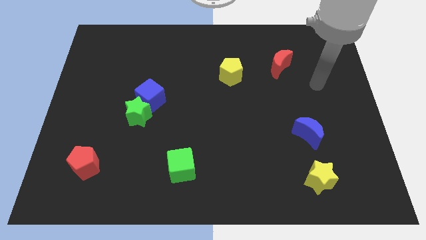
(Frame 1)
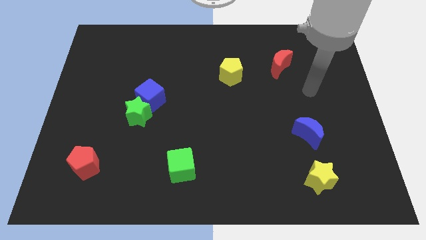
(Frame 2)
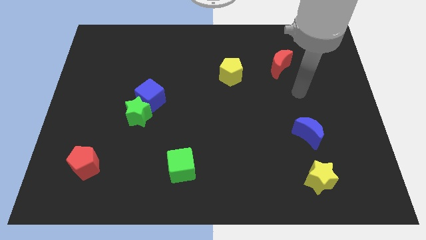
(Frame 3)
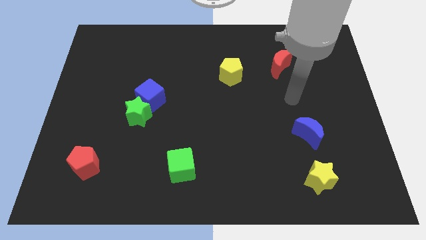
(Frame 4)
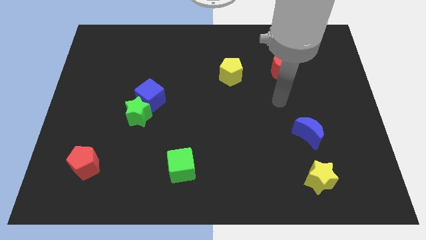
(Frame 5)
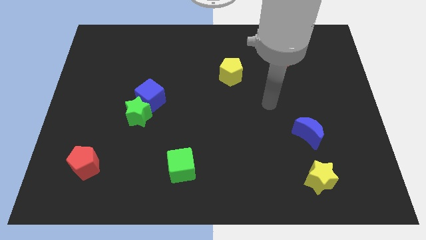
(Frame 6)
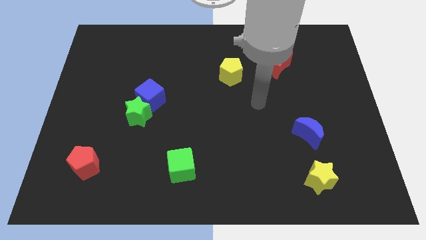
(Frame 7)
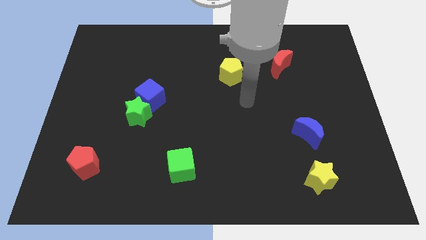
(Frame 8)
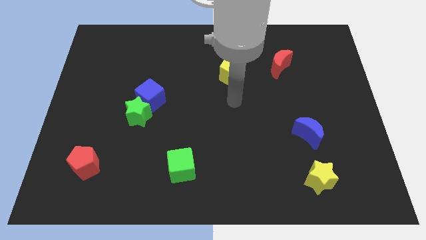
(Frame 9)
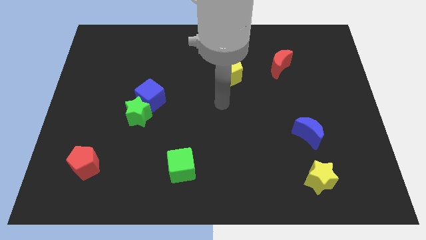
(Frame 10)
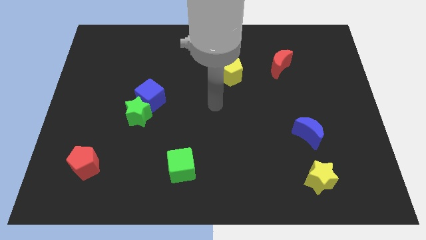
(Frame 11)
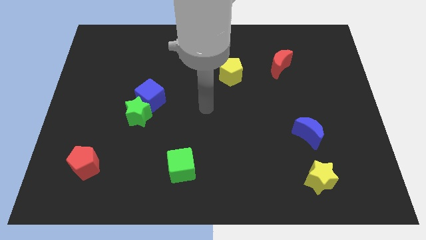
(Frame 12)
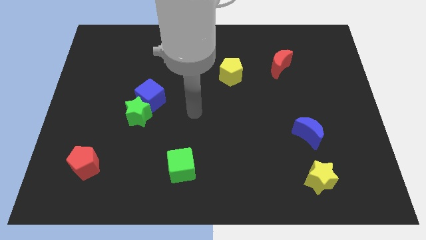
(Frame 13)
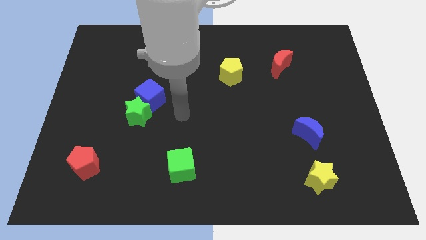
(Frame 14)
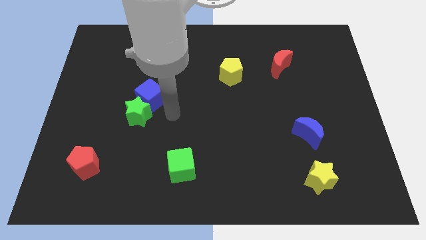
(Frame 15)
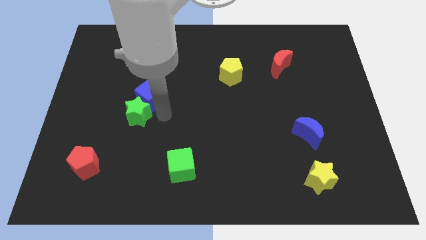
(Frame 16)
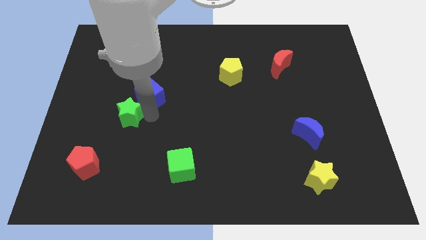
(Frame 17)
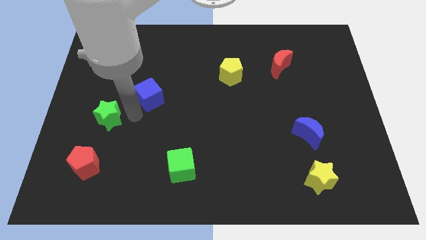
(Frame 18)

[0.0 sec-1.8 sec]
move the blue cube away from the green star

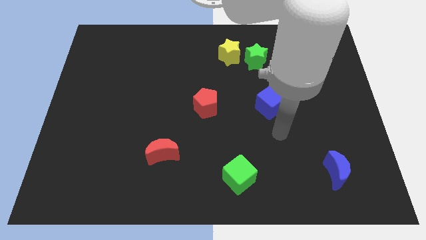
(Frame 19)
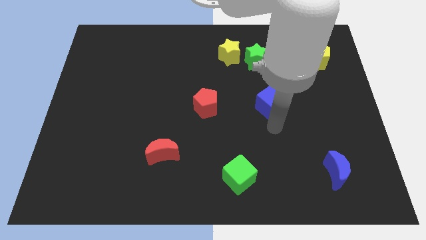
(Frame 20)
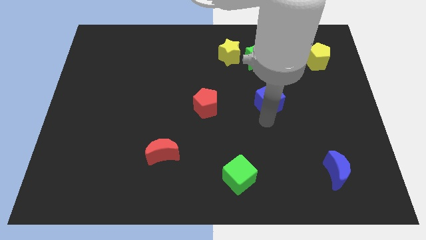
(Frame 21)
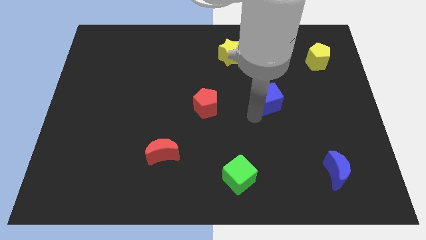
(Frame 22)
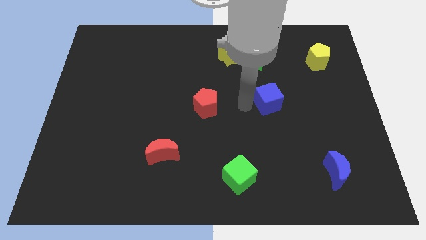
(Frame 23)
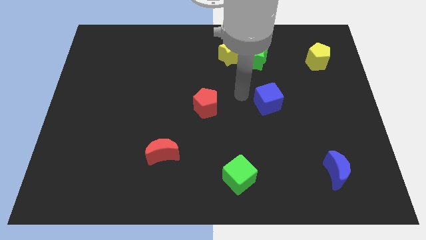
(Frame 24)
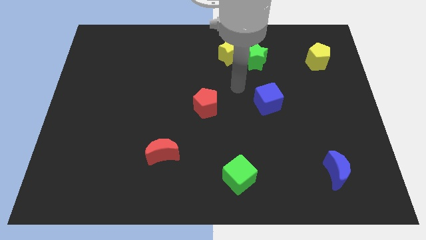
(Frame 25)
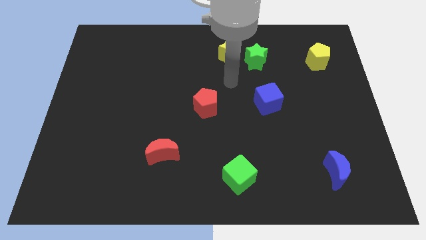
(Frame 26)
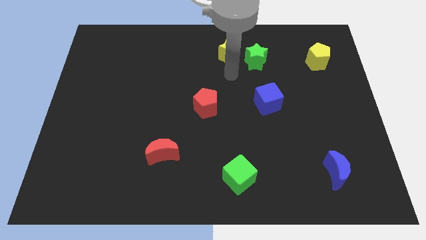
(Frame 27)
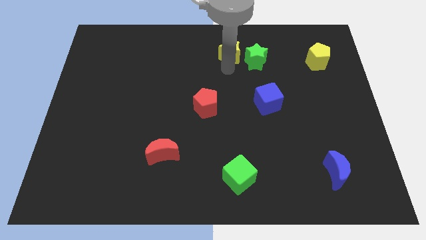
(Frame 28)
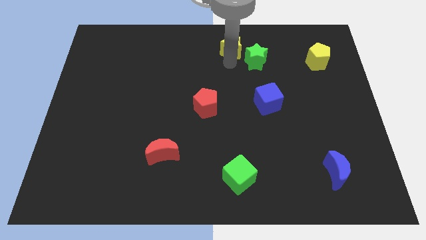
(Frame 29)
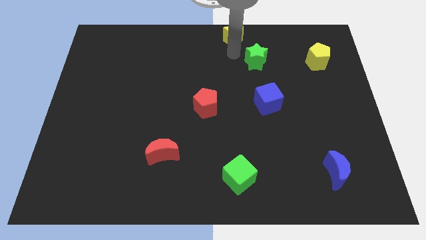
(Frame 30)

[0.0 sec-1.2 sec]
pull the green star apart from the yellow star

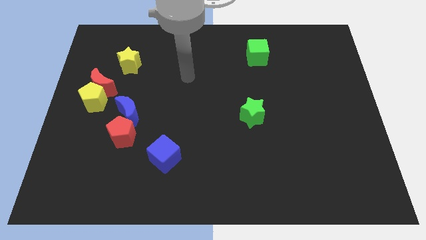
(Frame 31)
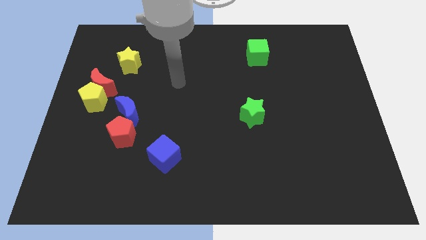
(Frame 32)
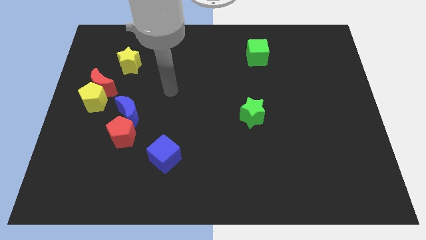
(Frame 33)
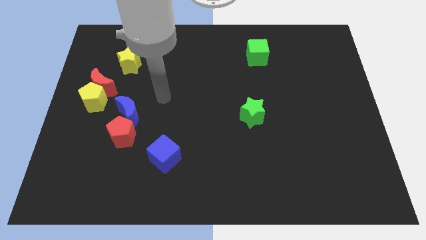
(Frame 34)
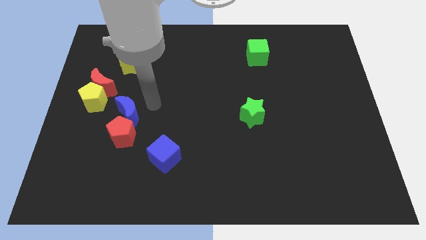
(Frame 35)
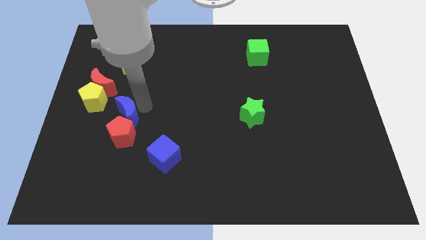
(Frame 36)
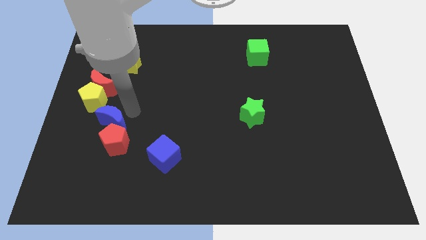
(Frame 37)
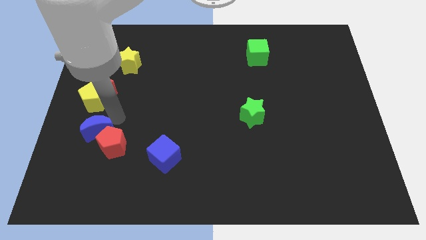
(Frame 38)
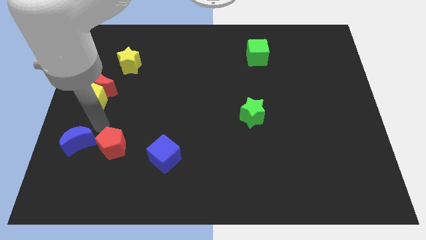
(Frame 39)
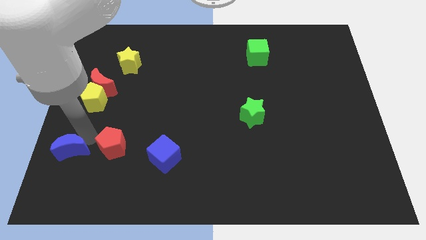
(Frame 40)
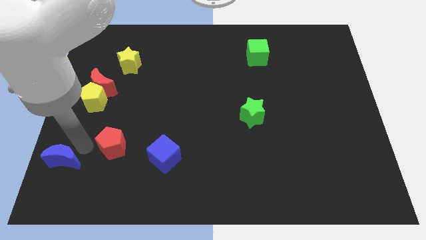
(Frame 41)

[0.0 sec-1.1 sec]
pull the red pentagon apart from the blue moon

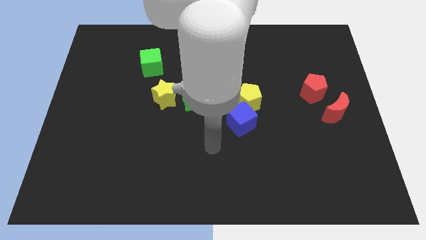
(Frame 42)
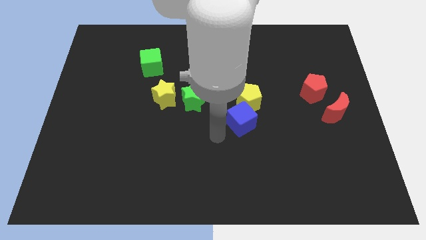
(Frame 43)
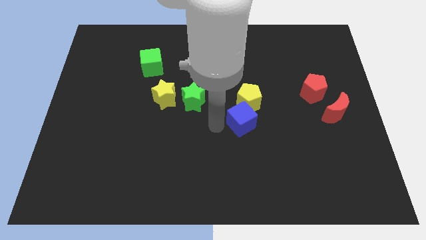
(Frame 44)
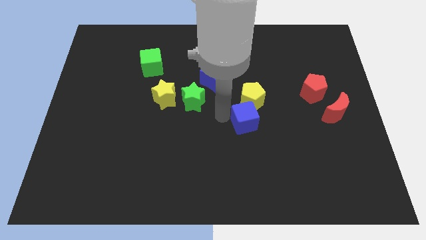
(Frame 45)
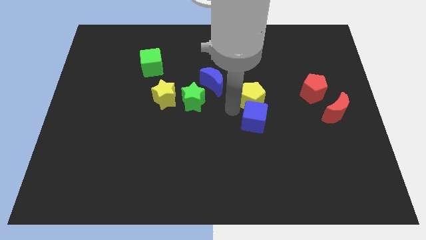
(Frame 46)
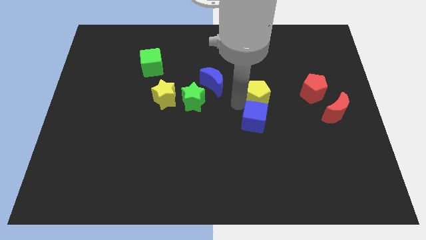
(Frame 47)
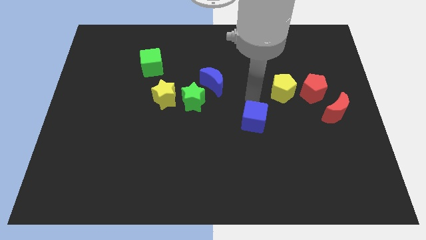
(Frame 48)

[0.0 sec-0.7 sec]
pull the blue cube apart from the yellow pentagon

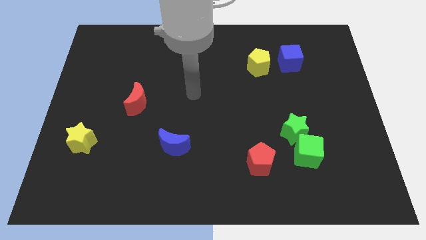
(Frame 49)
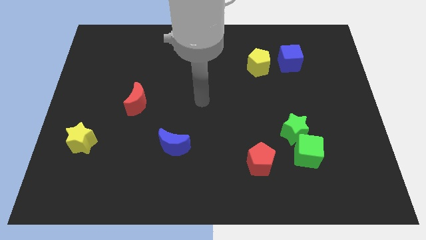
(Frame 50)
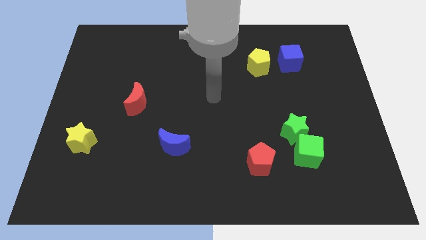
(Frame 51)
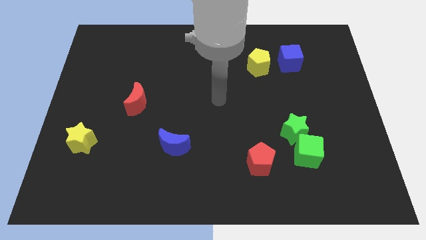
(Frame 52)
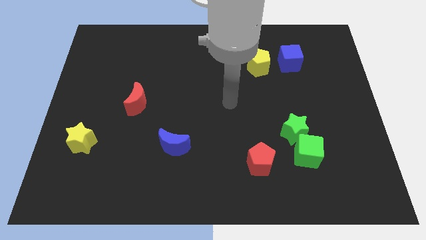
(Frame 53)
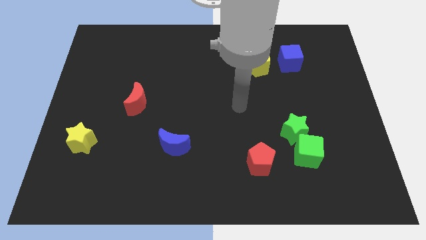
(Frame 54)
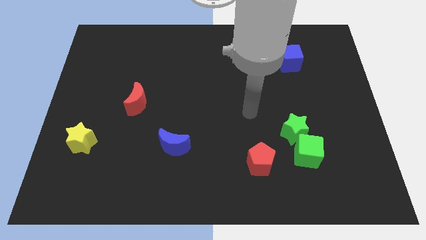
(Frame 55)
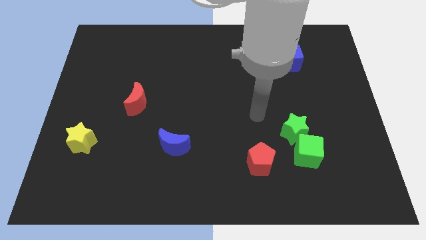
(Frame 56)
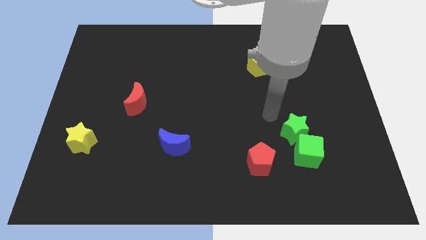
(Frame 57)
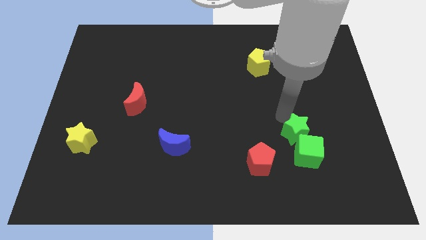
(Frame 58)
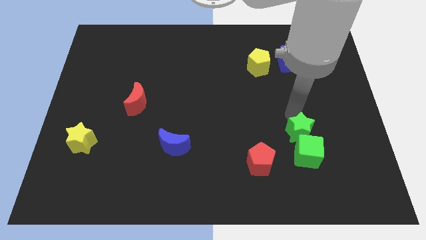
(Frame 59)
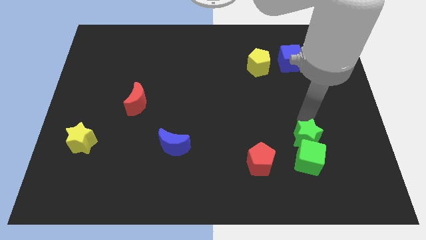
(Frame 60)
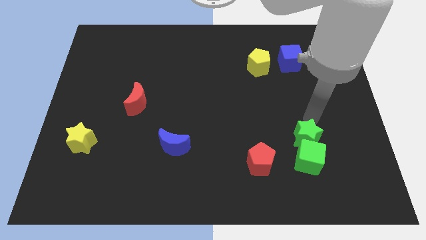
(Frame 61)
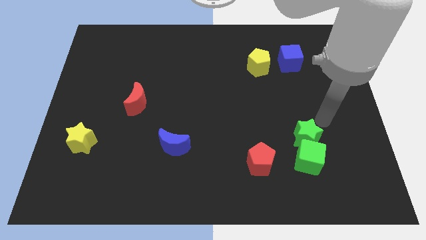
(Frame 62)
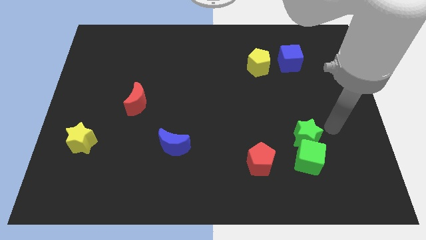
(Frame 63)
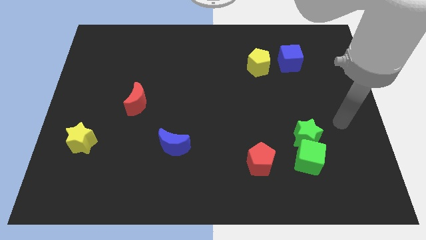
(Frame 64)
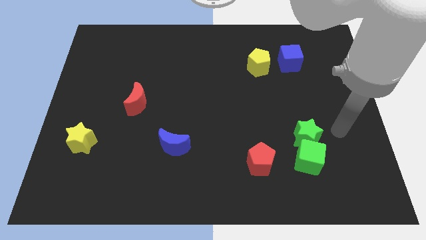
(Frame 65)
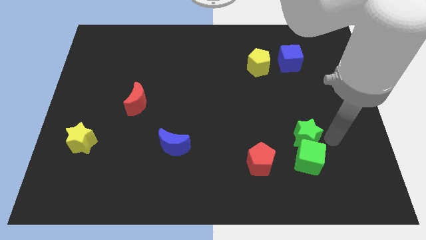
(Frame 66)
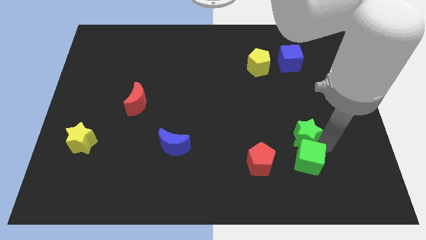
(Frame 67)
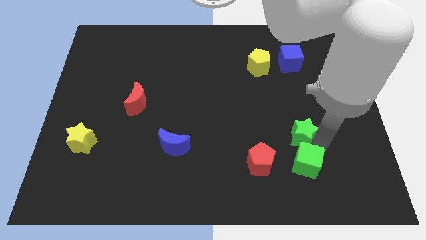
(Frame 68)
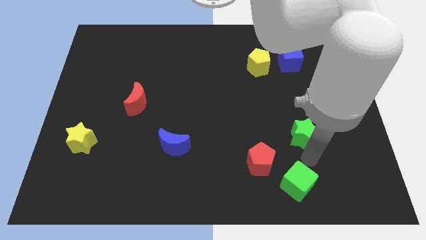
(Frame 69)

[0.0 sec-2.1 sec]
separate the green star from the green cube

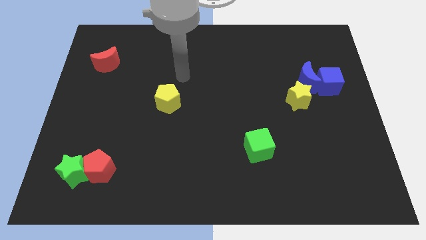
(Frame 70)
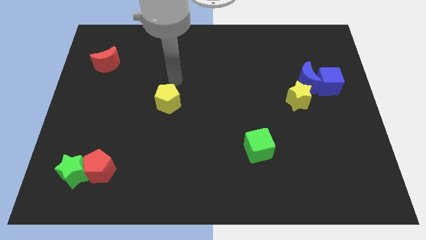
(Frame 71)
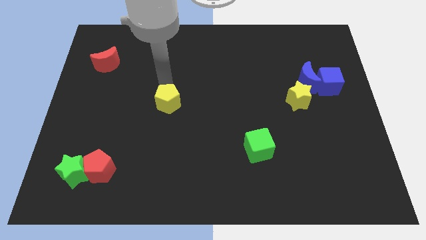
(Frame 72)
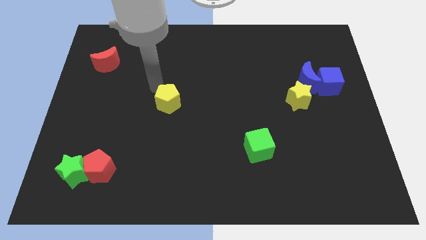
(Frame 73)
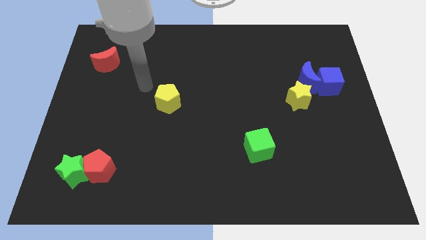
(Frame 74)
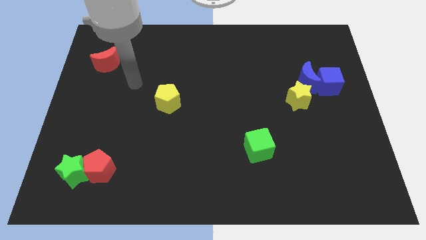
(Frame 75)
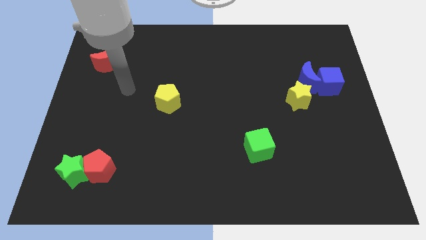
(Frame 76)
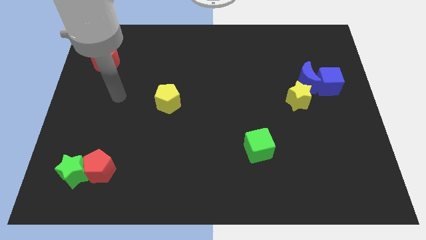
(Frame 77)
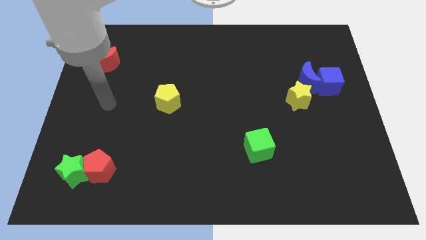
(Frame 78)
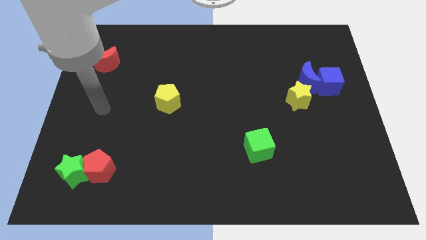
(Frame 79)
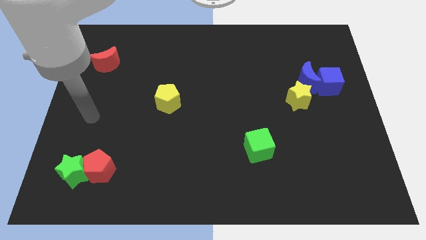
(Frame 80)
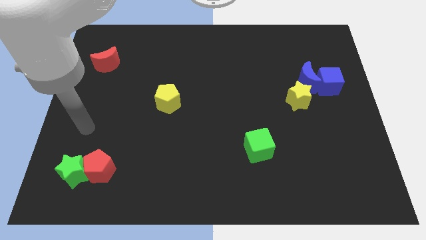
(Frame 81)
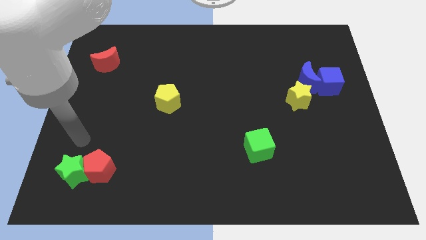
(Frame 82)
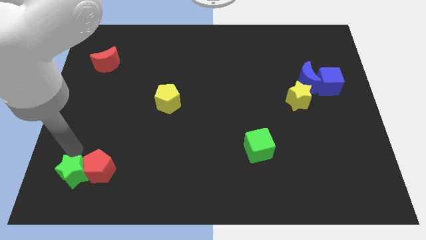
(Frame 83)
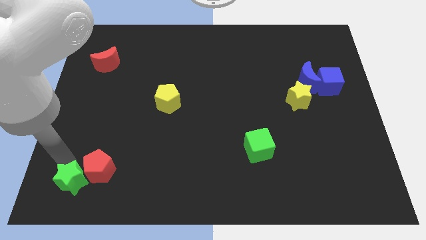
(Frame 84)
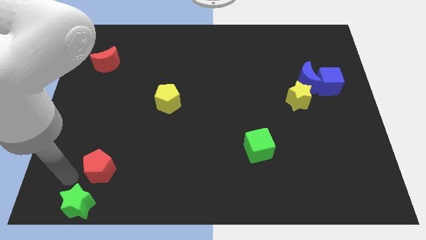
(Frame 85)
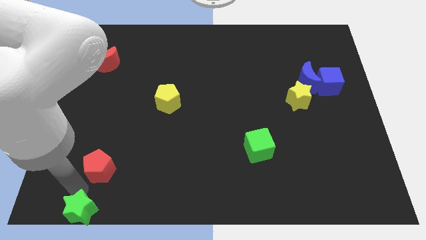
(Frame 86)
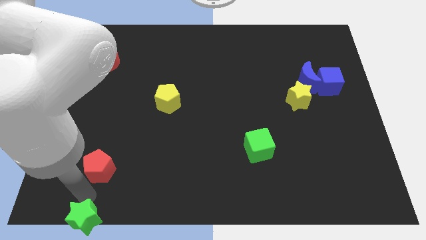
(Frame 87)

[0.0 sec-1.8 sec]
separate the red pentagon from the green star

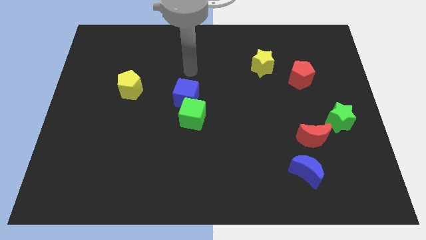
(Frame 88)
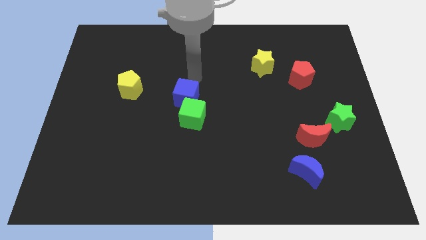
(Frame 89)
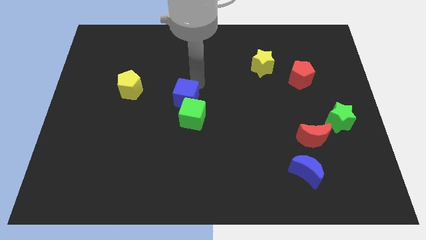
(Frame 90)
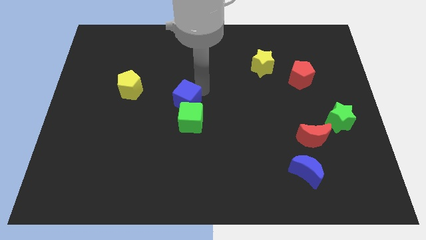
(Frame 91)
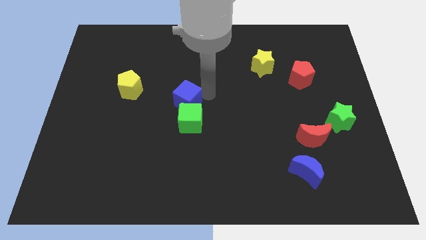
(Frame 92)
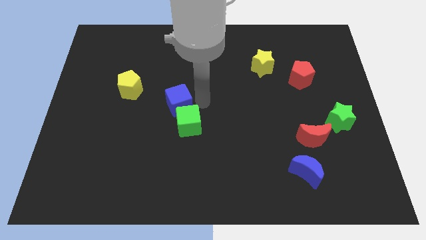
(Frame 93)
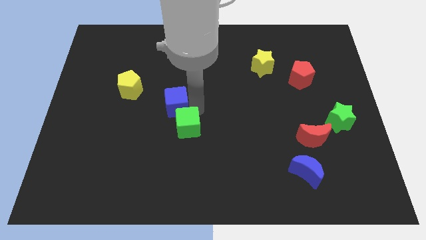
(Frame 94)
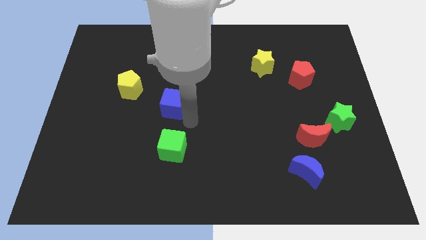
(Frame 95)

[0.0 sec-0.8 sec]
pull the blue cube apart from the green cube
